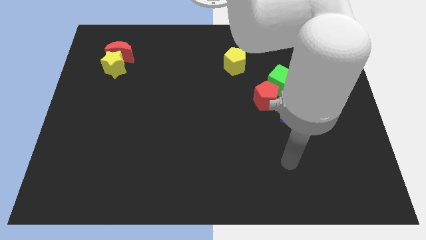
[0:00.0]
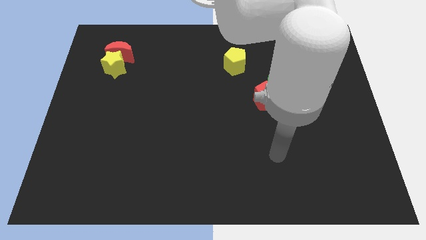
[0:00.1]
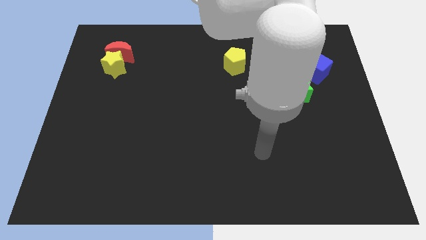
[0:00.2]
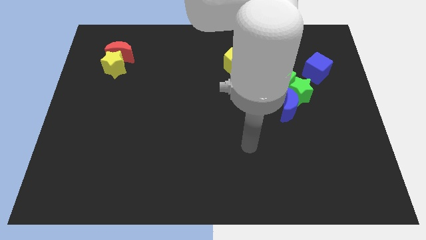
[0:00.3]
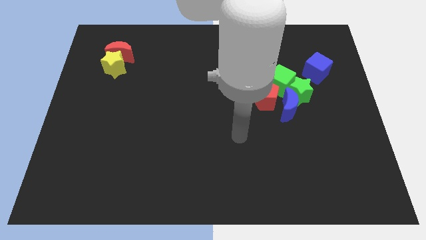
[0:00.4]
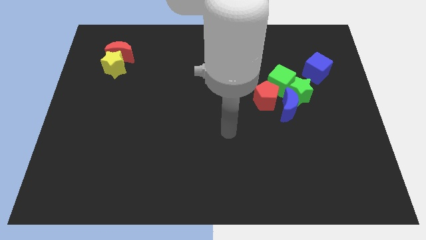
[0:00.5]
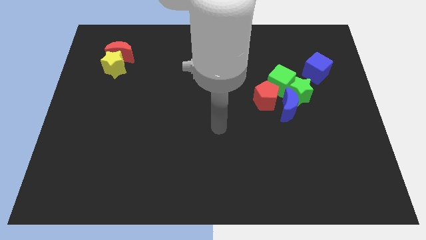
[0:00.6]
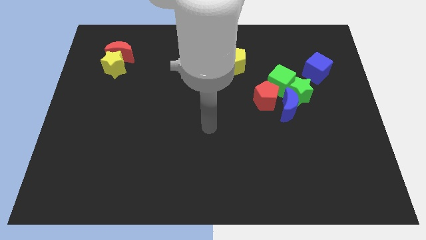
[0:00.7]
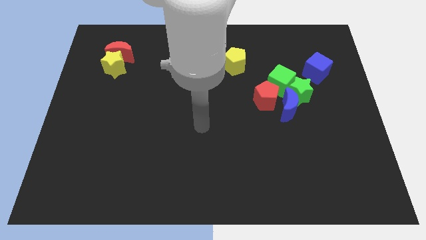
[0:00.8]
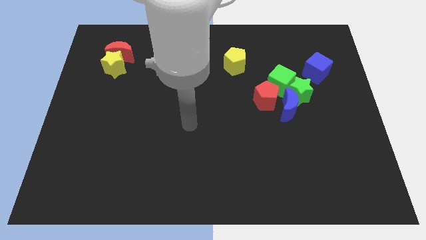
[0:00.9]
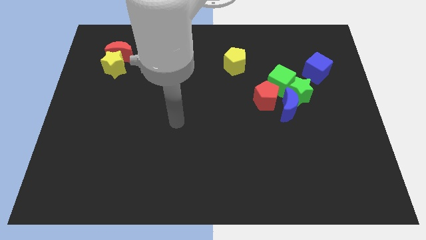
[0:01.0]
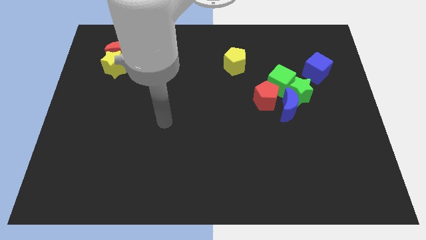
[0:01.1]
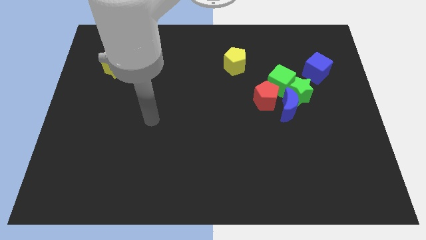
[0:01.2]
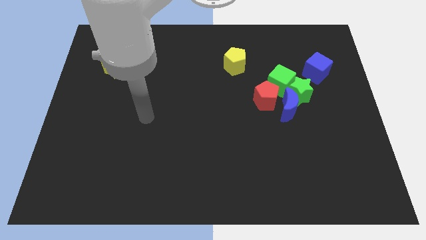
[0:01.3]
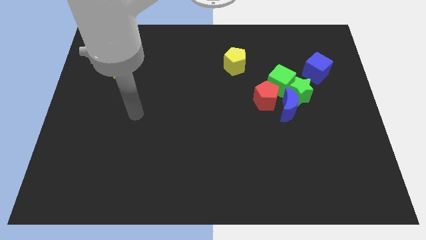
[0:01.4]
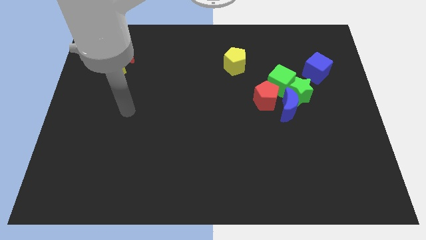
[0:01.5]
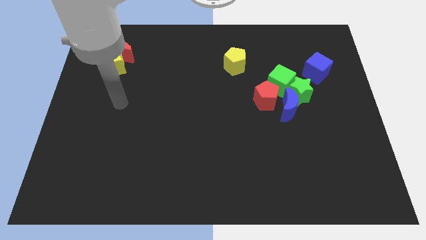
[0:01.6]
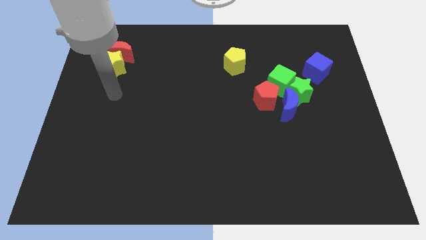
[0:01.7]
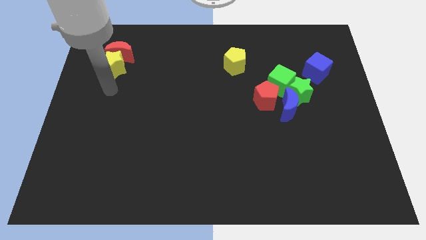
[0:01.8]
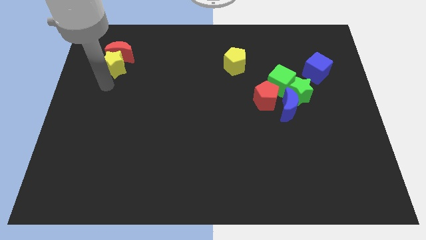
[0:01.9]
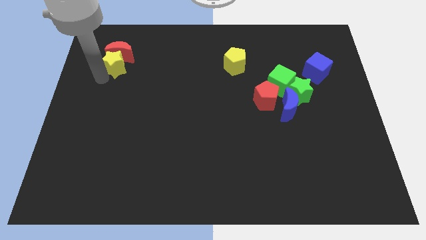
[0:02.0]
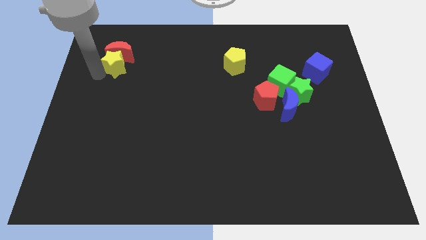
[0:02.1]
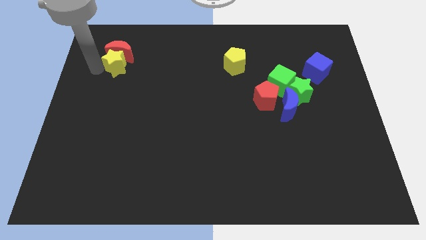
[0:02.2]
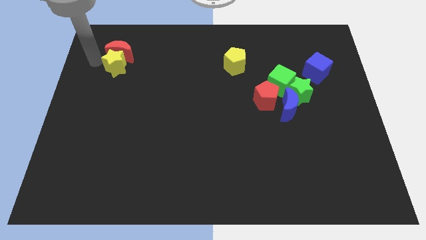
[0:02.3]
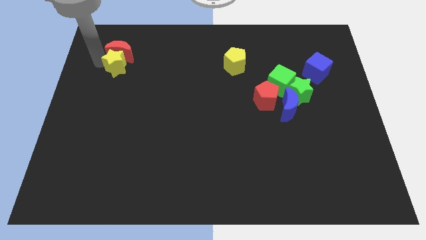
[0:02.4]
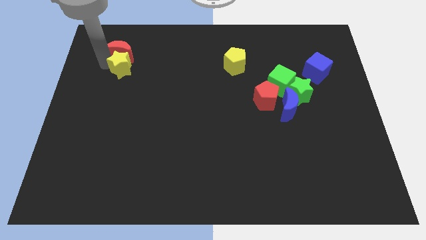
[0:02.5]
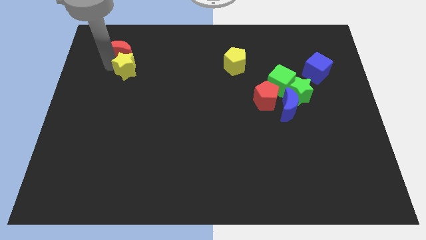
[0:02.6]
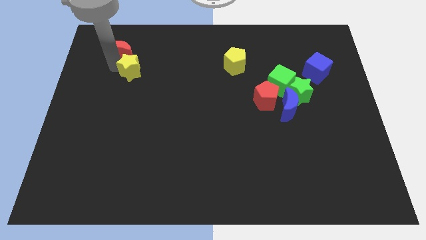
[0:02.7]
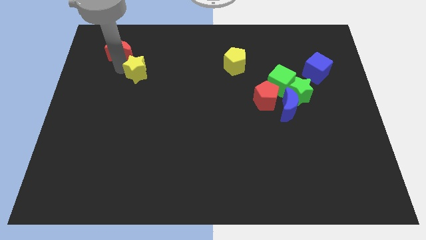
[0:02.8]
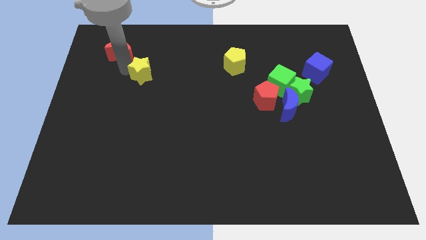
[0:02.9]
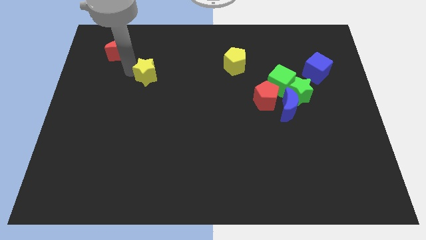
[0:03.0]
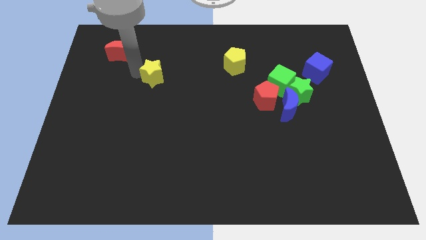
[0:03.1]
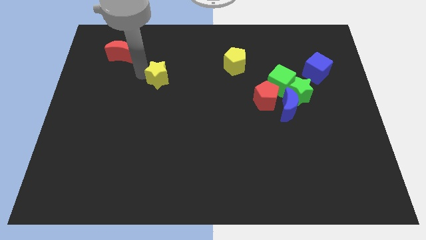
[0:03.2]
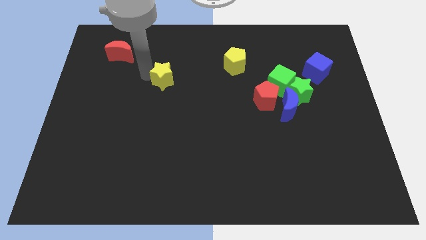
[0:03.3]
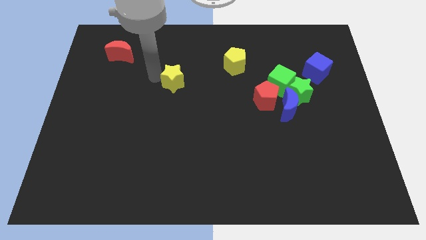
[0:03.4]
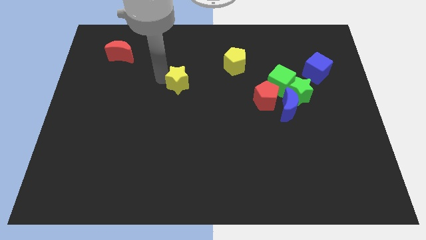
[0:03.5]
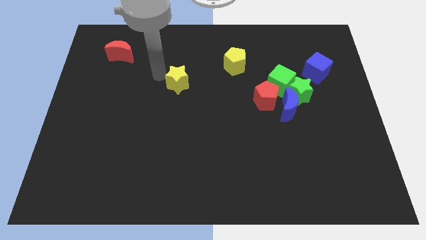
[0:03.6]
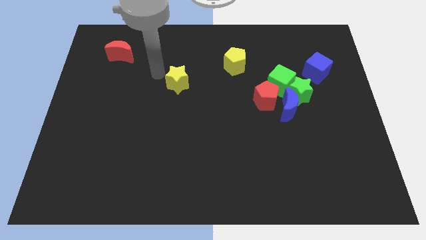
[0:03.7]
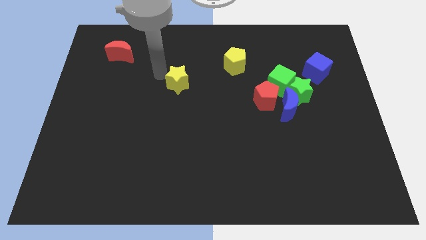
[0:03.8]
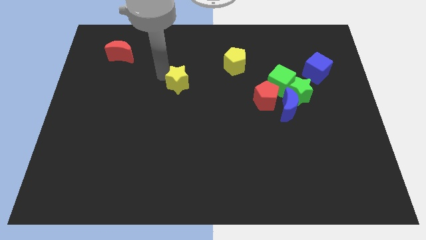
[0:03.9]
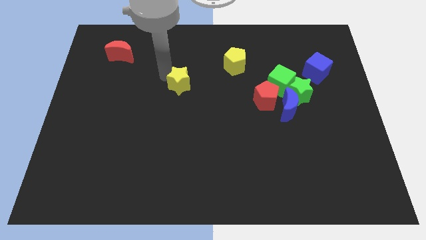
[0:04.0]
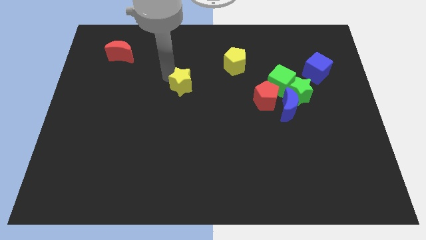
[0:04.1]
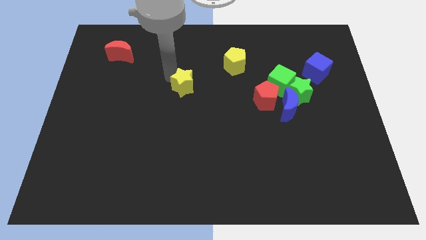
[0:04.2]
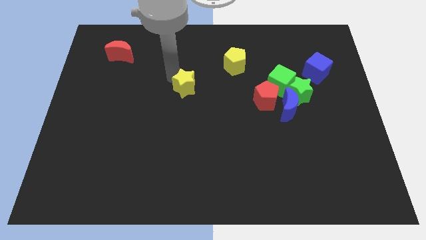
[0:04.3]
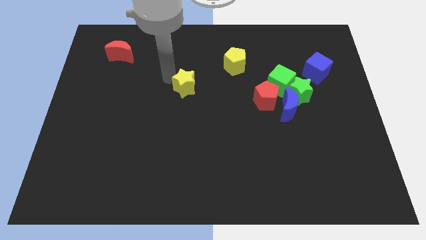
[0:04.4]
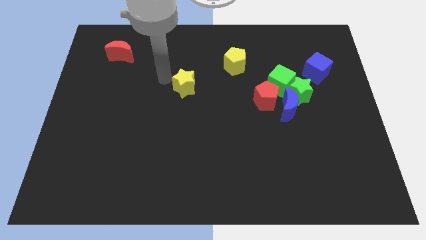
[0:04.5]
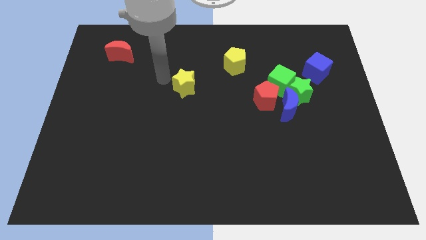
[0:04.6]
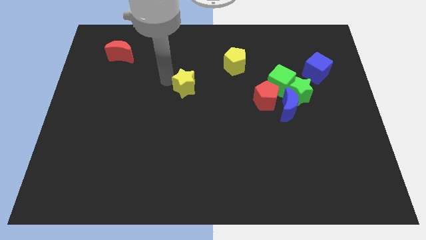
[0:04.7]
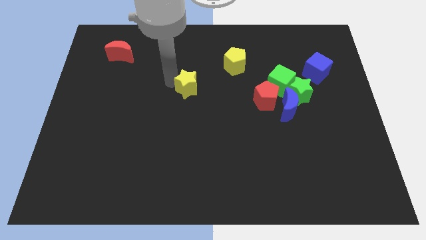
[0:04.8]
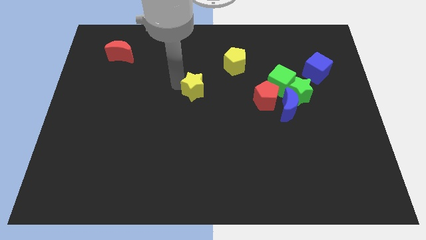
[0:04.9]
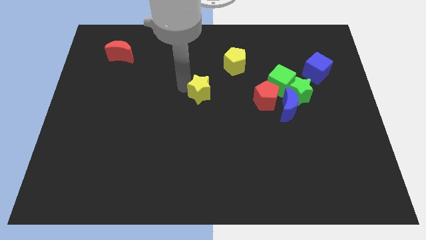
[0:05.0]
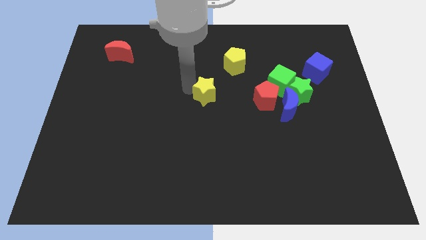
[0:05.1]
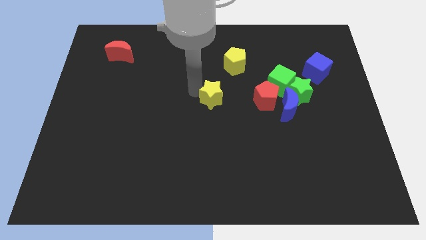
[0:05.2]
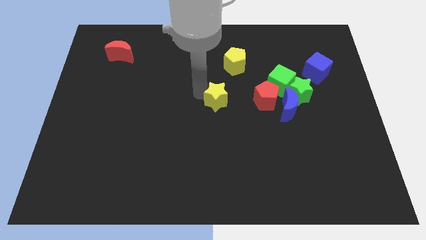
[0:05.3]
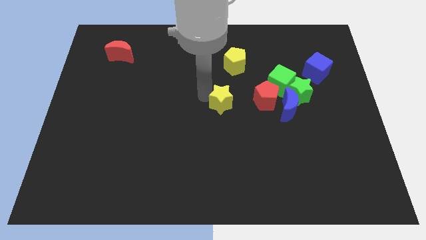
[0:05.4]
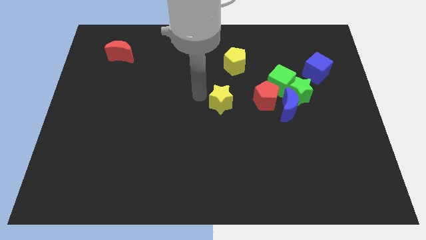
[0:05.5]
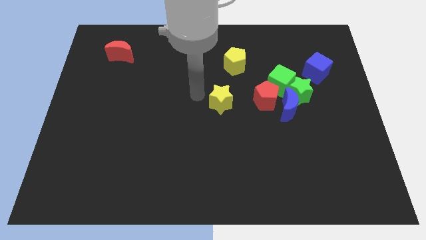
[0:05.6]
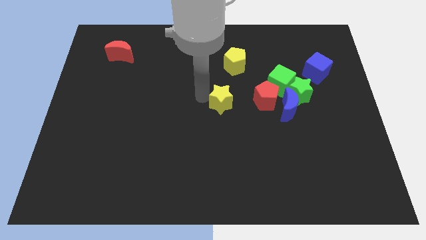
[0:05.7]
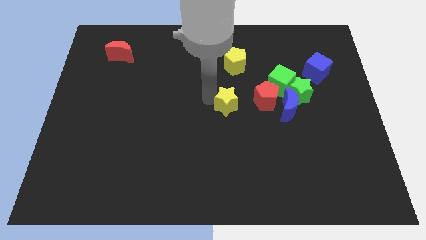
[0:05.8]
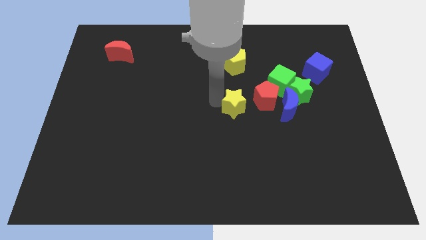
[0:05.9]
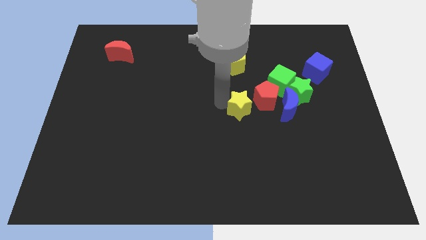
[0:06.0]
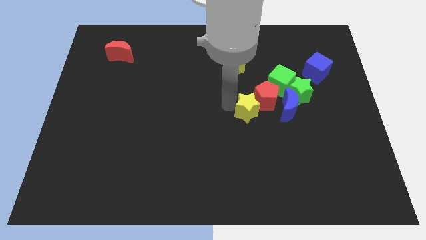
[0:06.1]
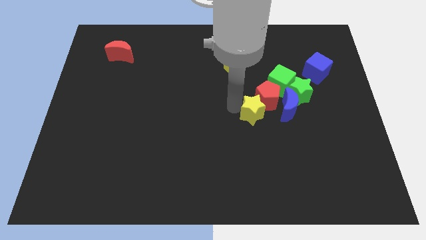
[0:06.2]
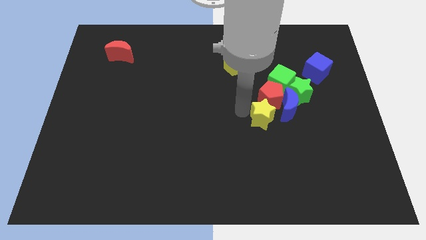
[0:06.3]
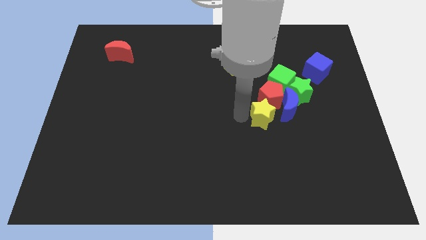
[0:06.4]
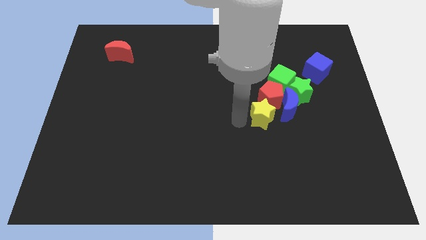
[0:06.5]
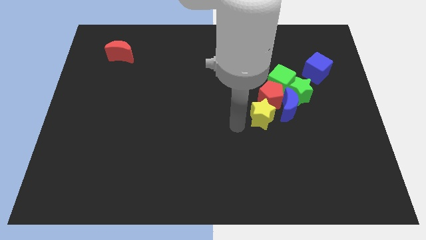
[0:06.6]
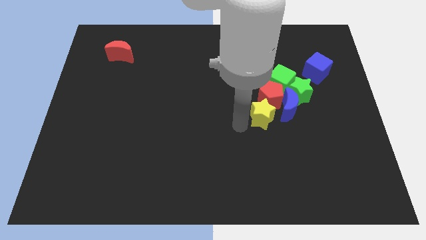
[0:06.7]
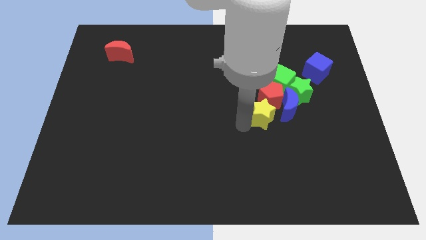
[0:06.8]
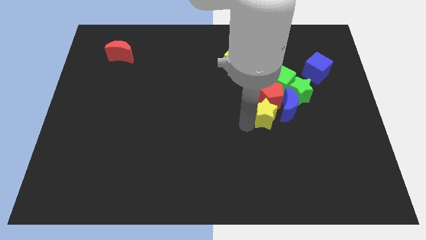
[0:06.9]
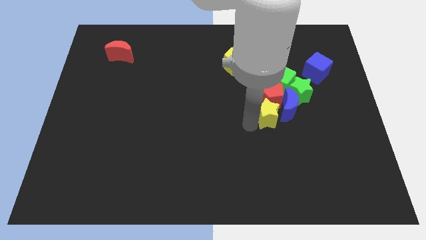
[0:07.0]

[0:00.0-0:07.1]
push the yellow star to the blue moon
